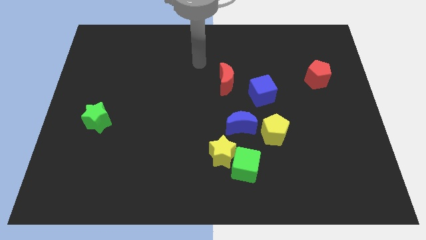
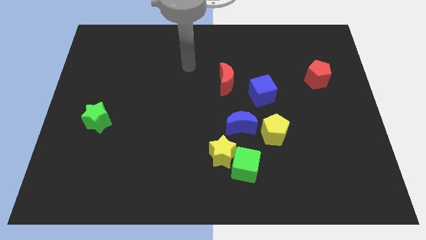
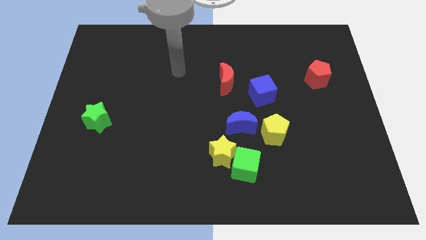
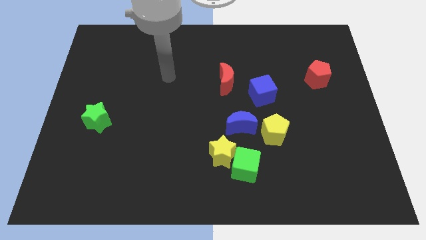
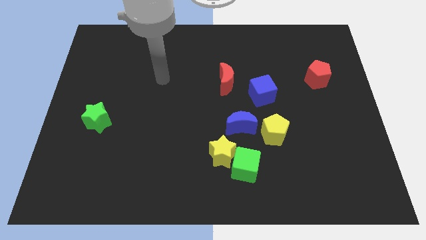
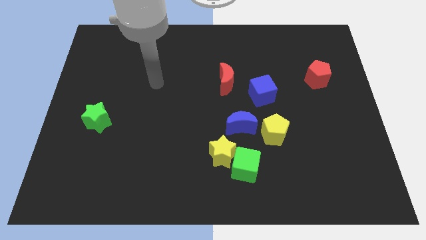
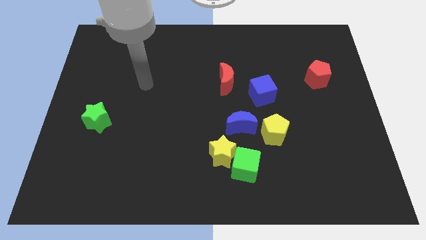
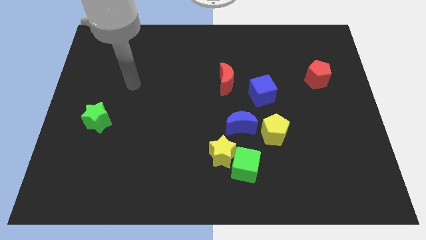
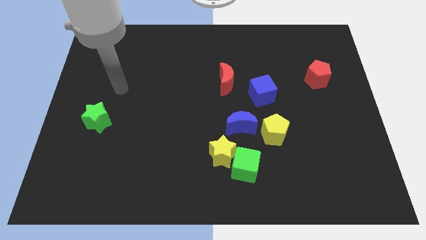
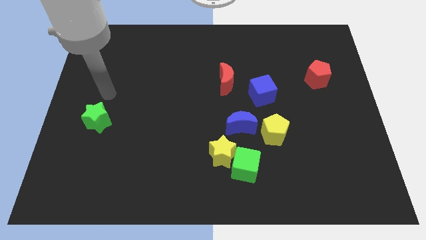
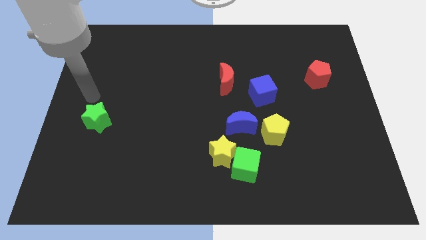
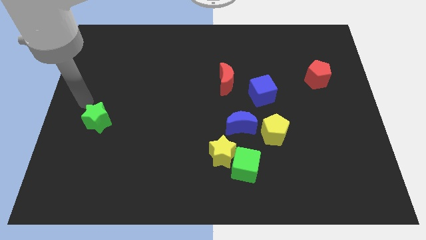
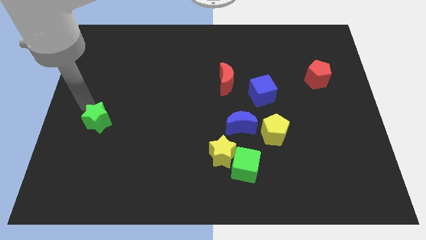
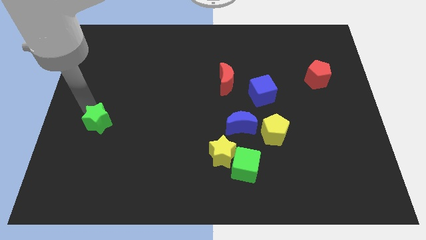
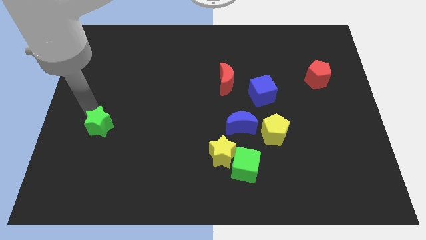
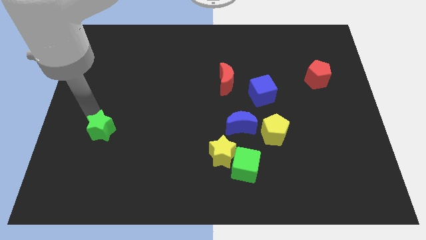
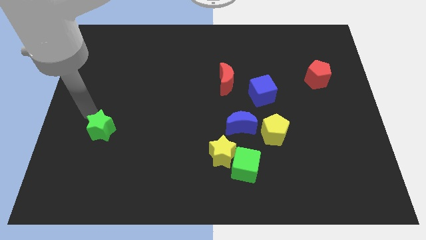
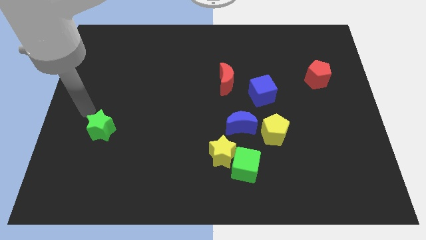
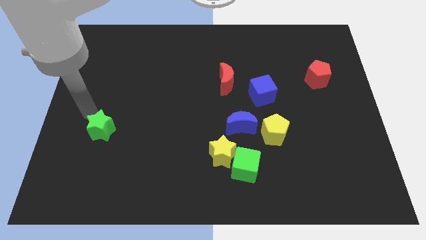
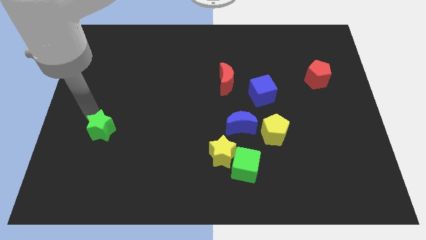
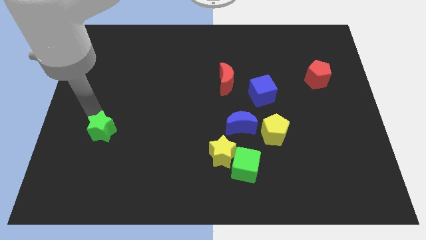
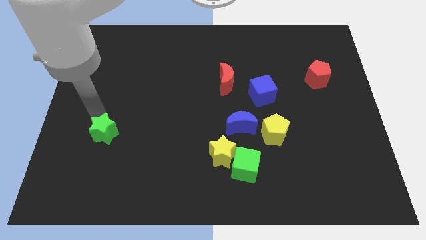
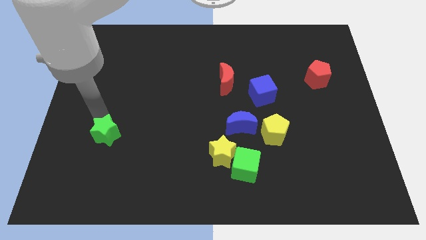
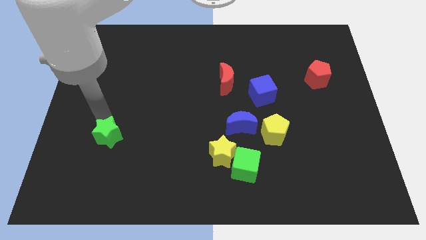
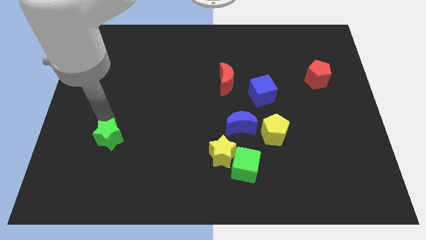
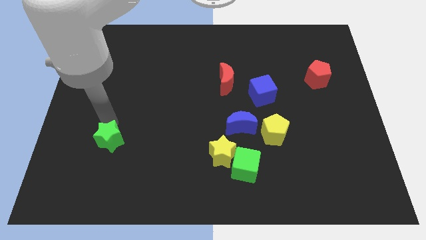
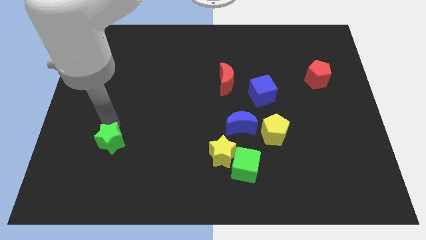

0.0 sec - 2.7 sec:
move the green star down and then right a little

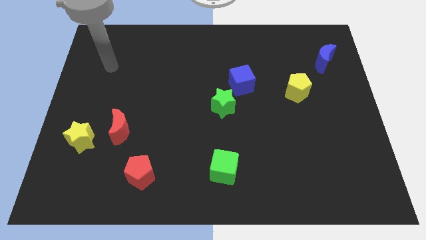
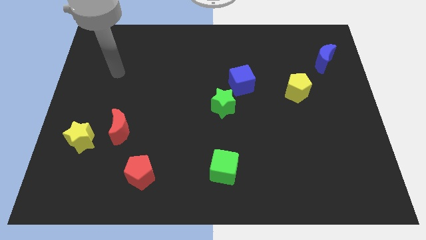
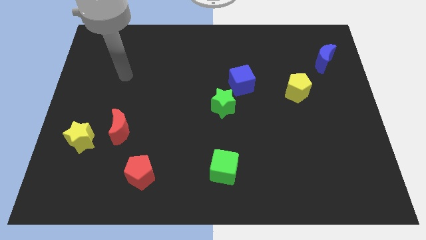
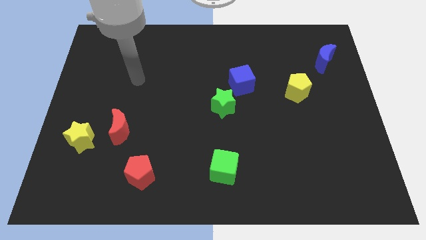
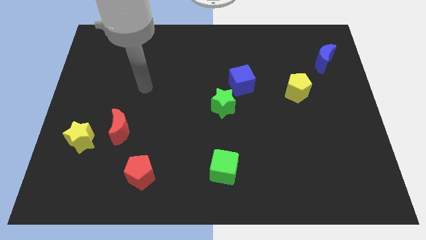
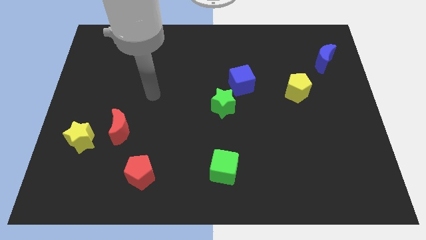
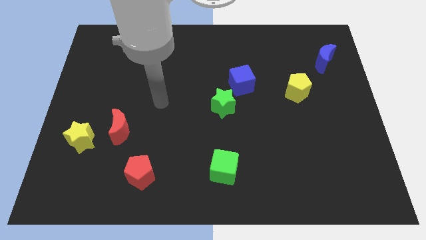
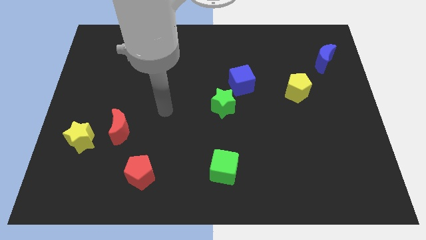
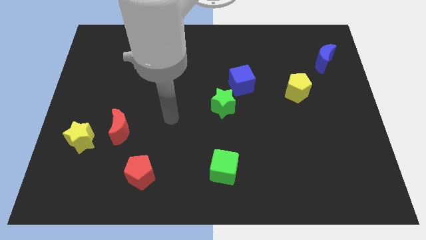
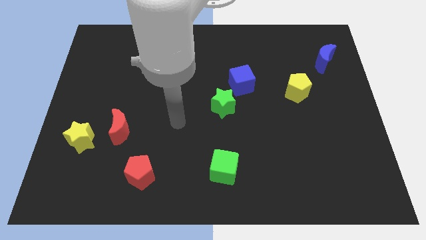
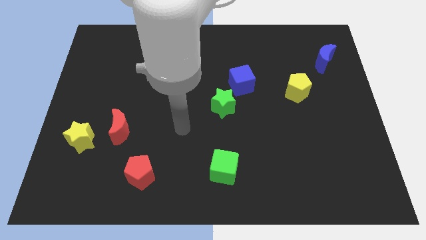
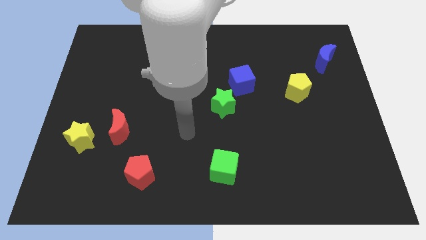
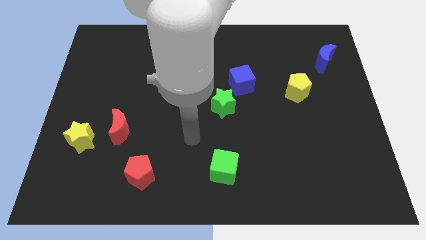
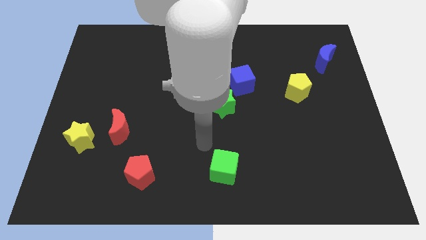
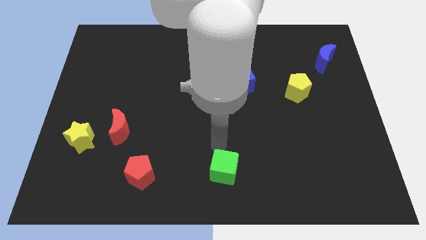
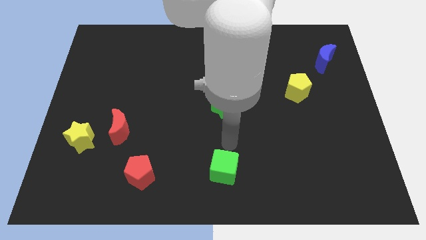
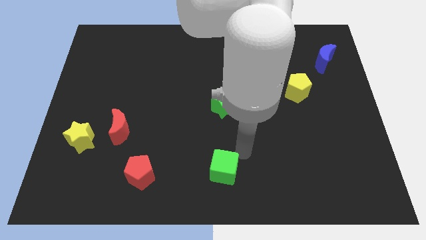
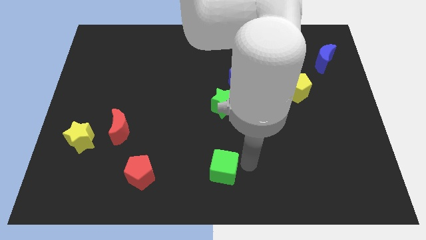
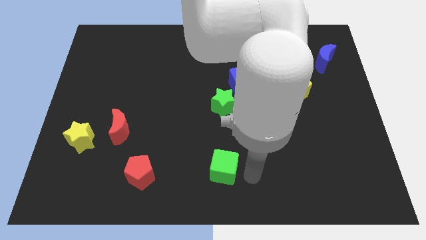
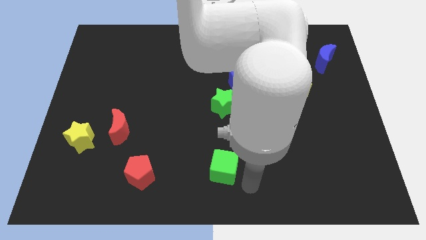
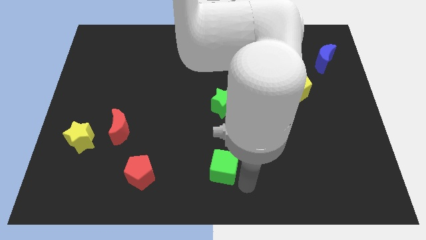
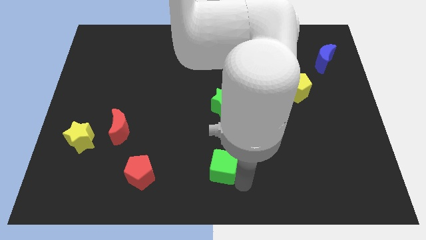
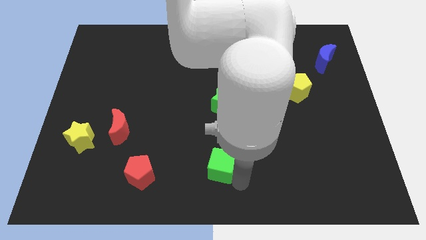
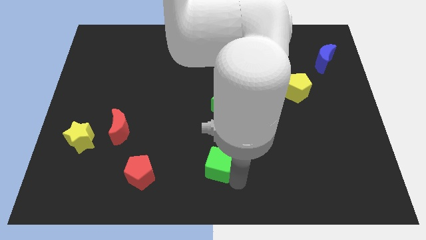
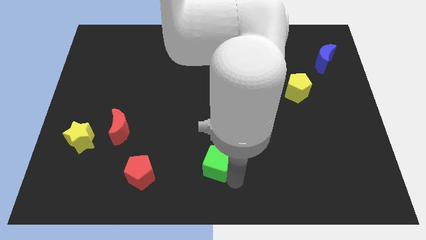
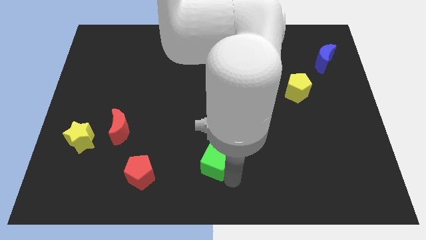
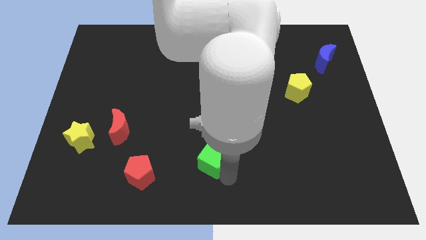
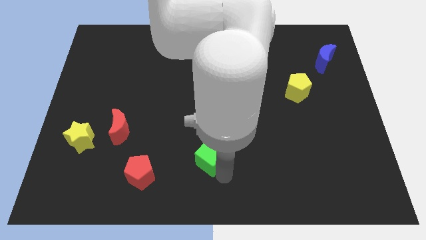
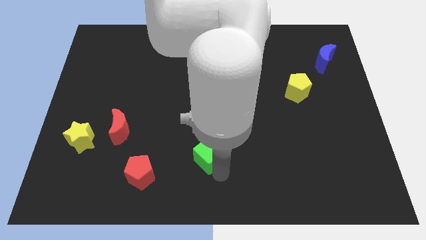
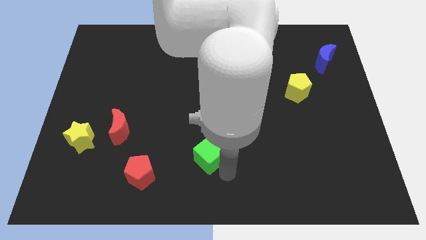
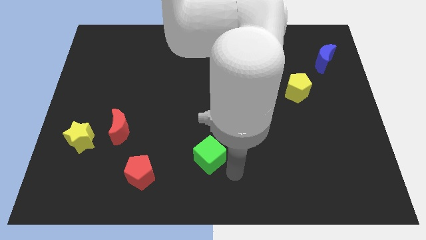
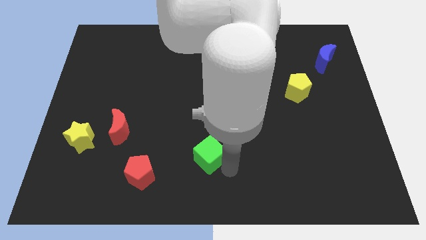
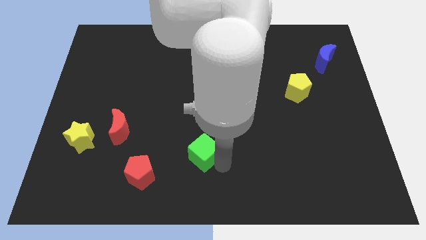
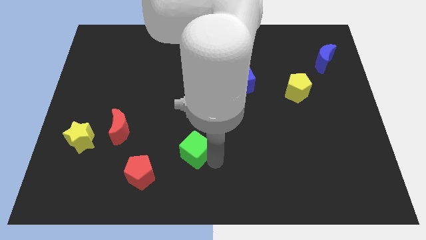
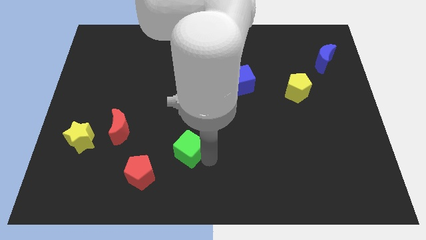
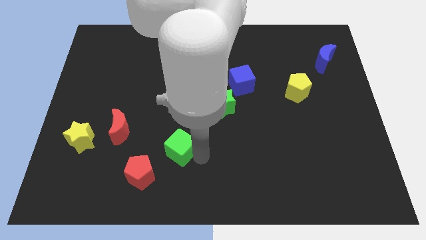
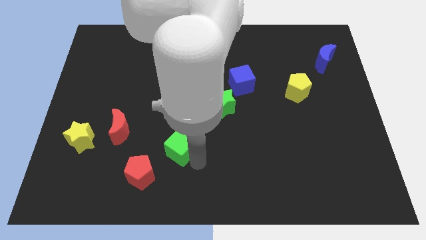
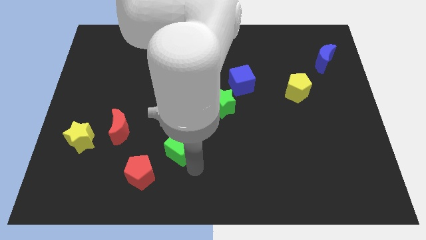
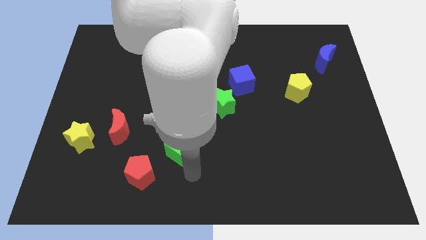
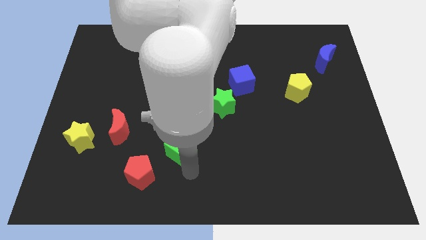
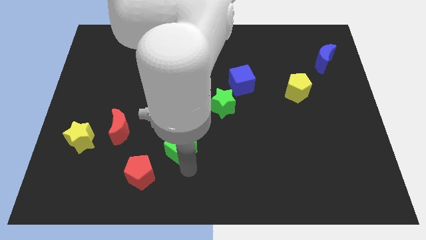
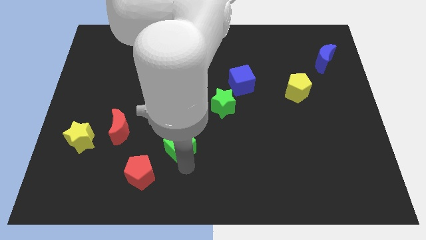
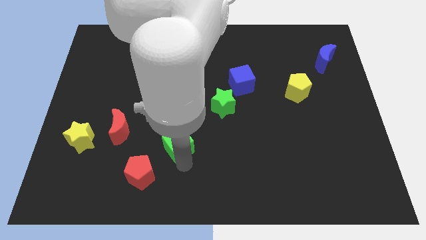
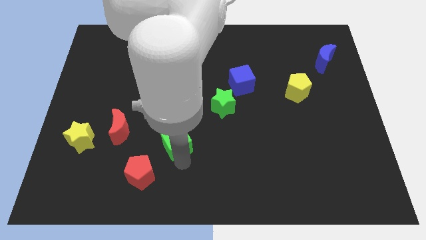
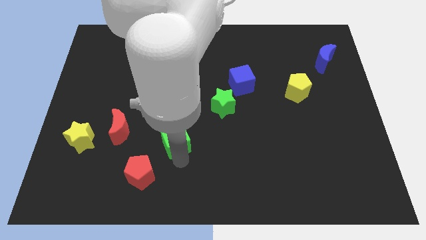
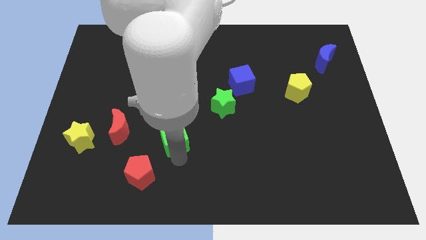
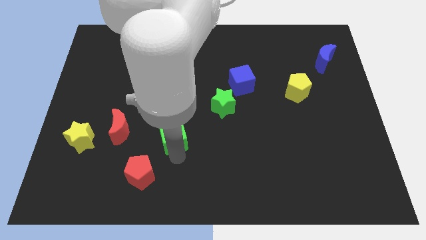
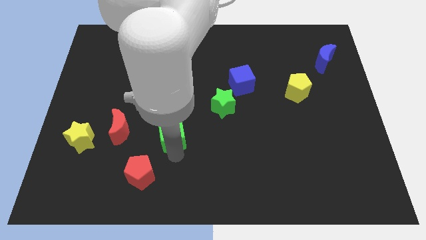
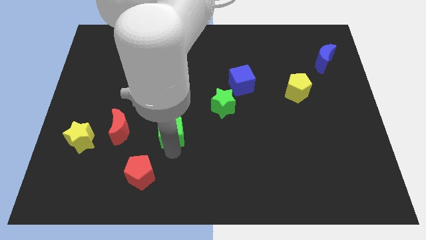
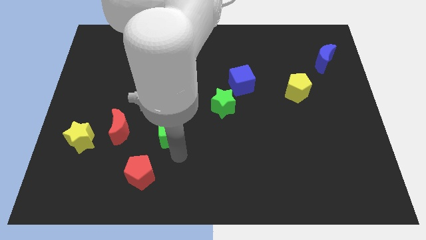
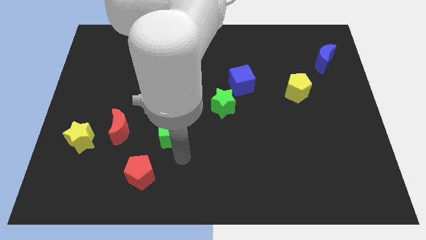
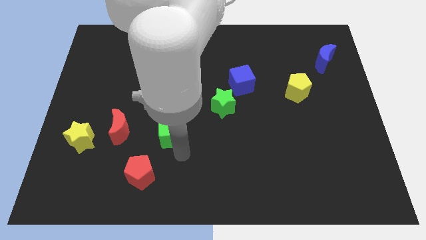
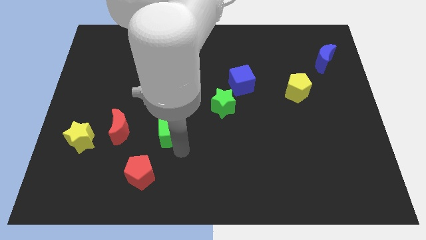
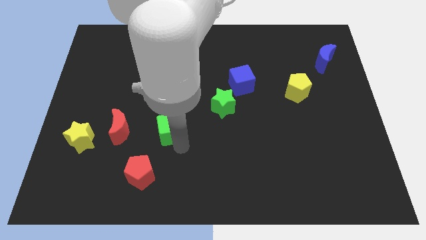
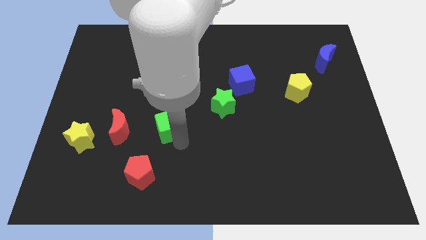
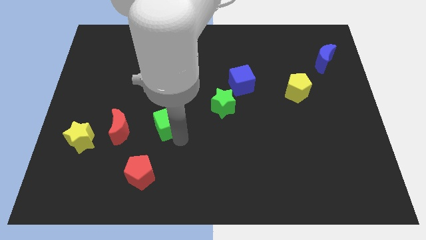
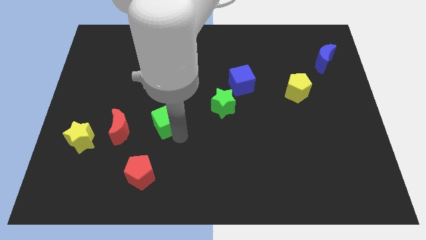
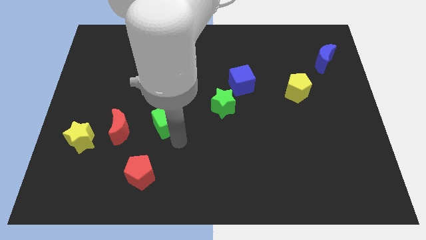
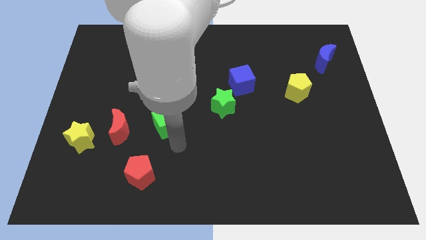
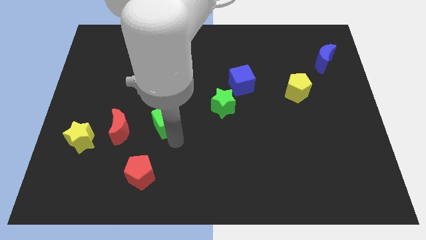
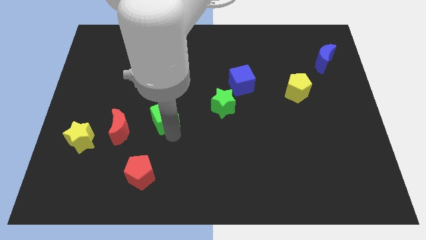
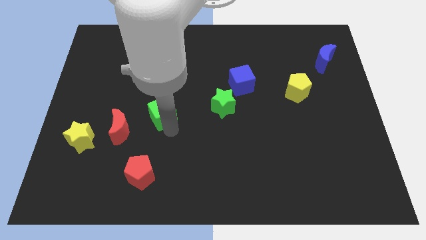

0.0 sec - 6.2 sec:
push the green cube diagonally upwards and to the left
